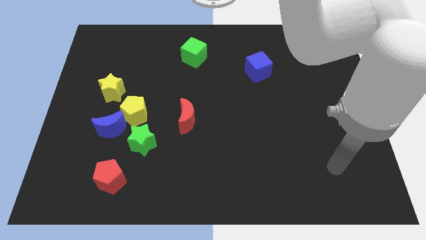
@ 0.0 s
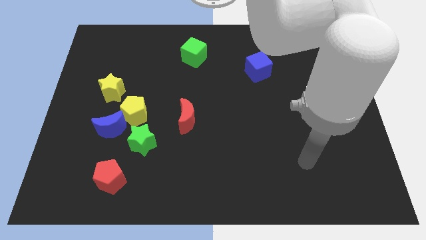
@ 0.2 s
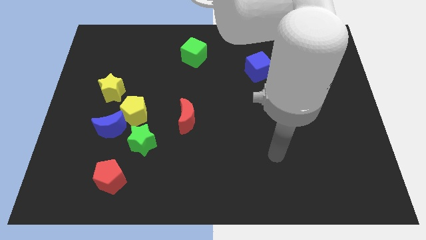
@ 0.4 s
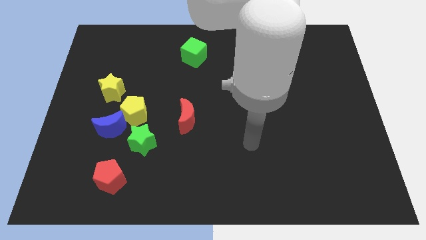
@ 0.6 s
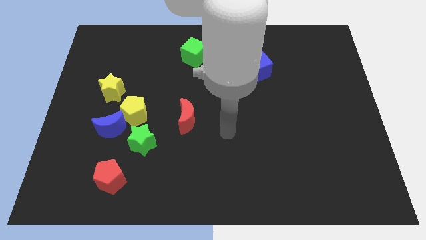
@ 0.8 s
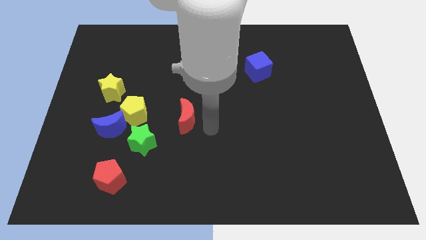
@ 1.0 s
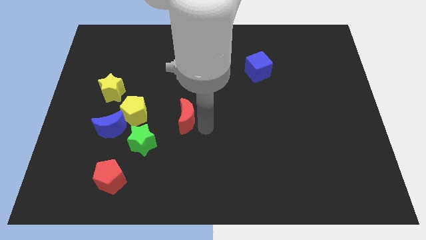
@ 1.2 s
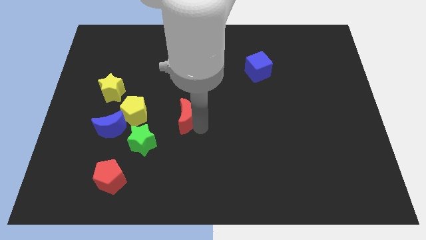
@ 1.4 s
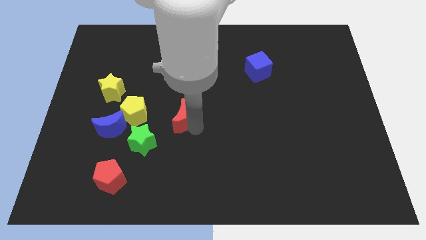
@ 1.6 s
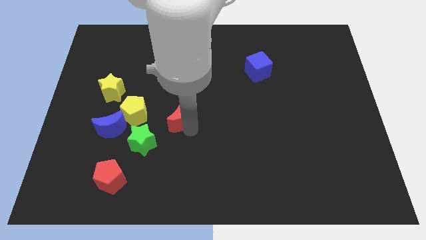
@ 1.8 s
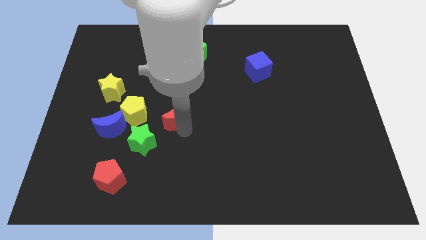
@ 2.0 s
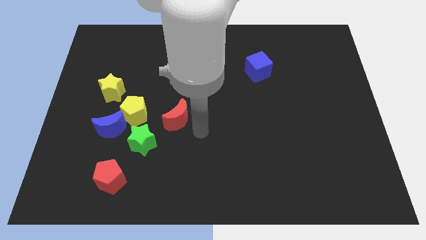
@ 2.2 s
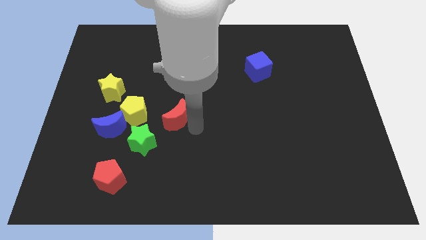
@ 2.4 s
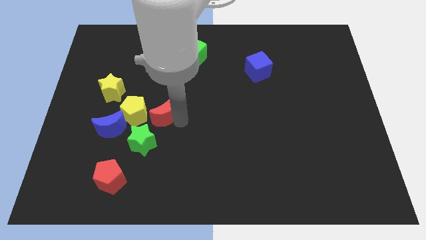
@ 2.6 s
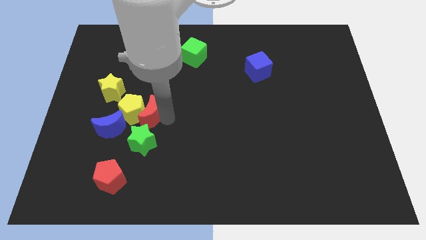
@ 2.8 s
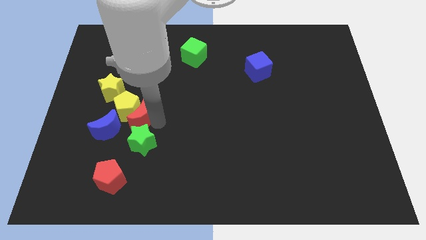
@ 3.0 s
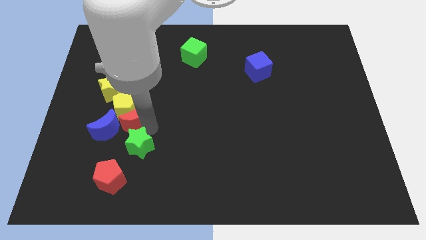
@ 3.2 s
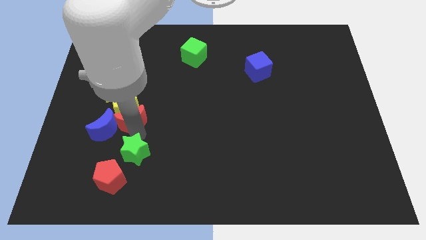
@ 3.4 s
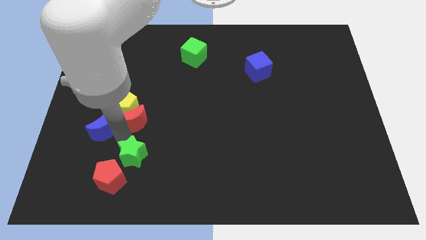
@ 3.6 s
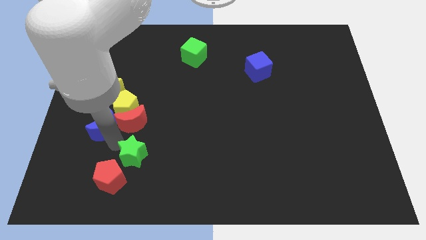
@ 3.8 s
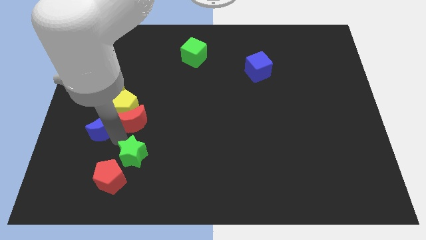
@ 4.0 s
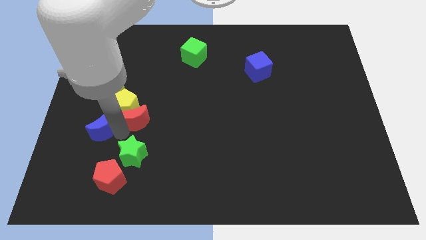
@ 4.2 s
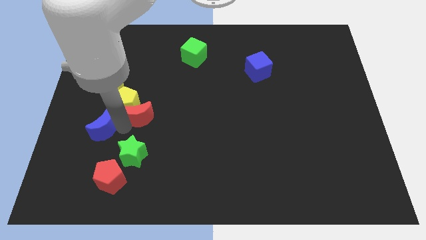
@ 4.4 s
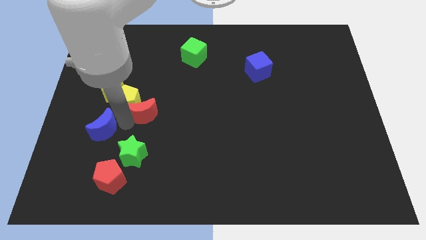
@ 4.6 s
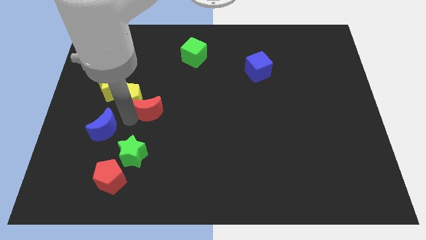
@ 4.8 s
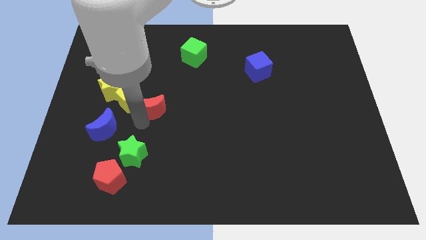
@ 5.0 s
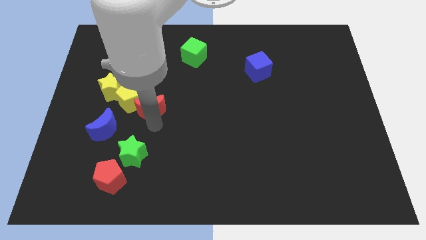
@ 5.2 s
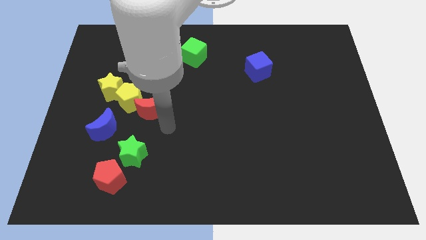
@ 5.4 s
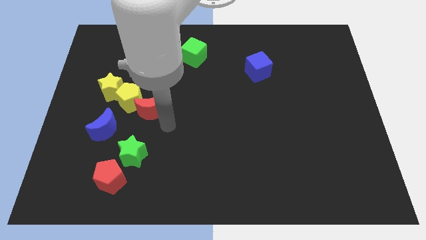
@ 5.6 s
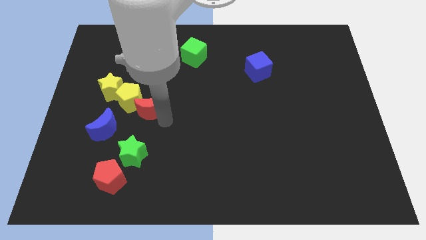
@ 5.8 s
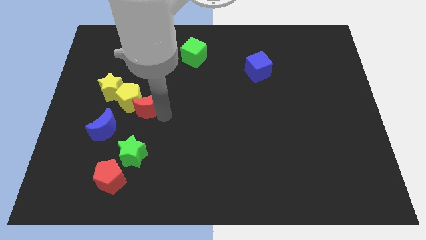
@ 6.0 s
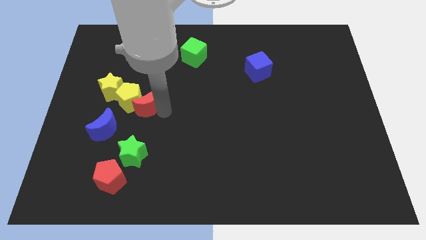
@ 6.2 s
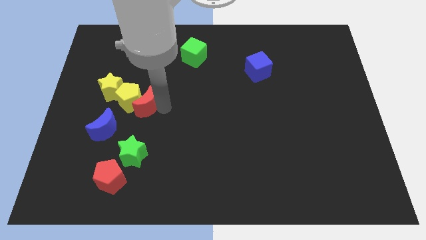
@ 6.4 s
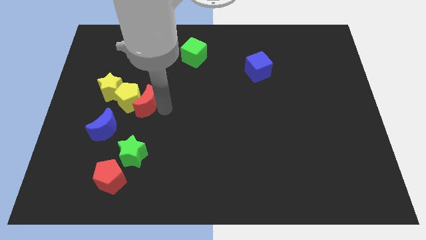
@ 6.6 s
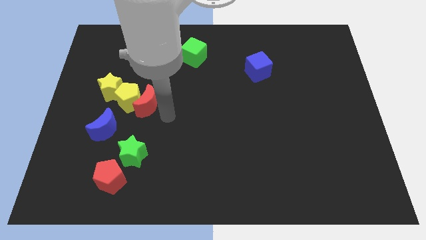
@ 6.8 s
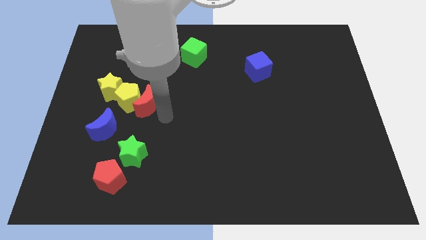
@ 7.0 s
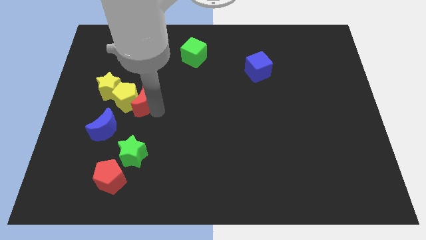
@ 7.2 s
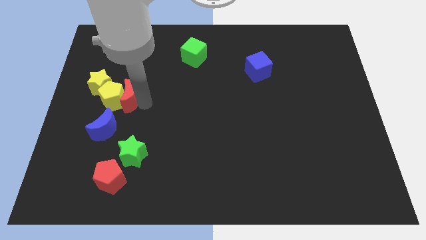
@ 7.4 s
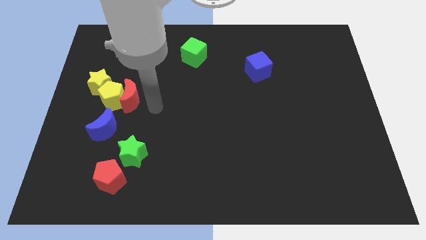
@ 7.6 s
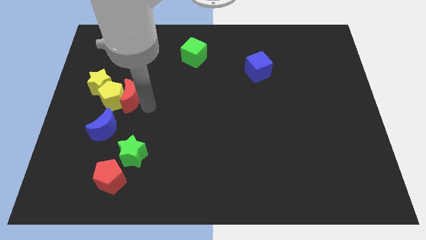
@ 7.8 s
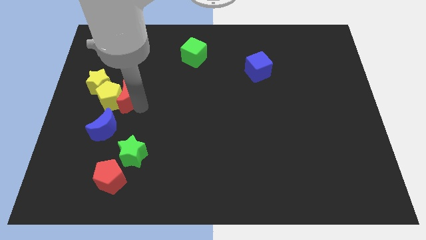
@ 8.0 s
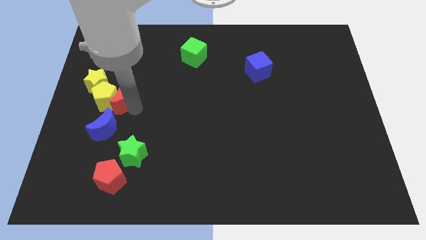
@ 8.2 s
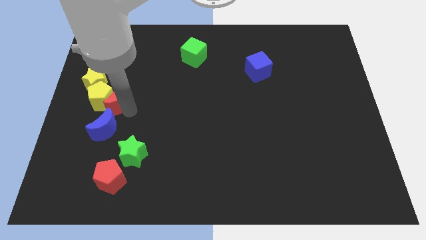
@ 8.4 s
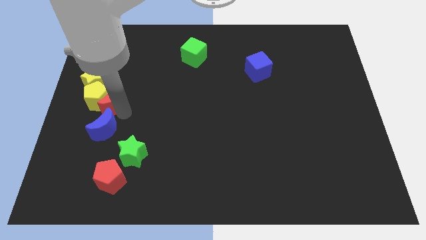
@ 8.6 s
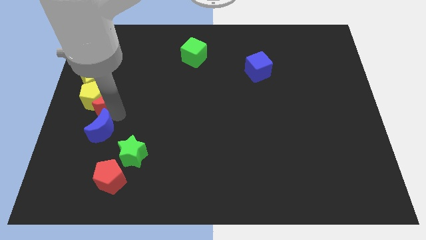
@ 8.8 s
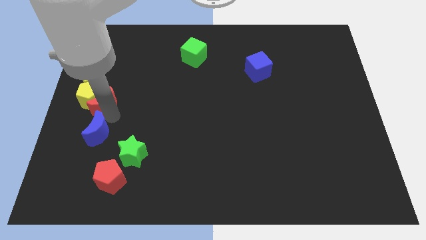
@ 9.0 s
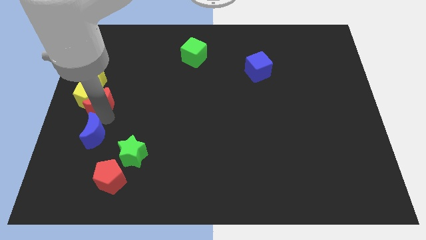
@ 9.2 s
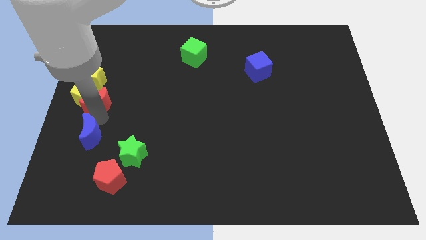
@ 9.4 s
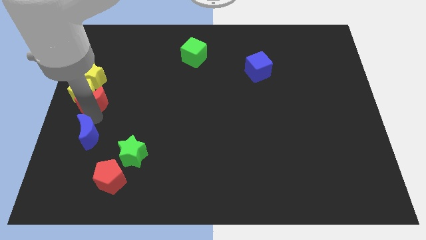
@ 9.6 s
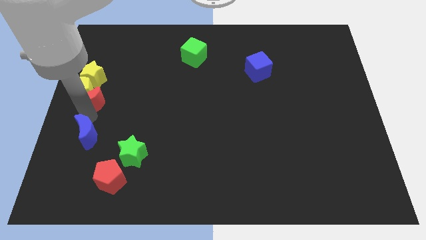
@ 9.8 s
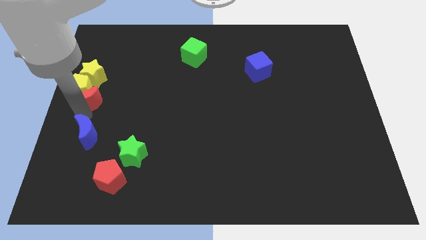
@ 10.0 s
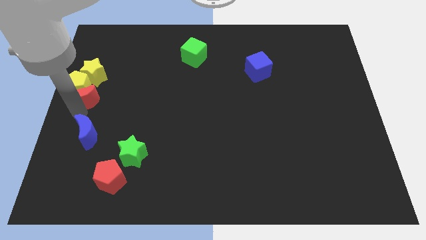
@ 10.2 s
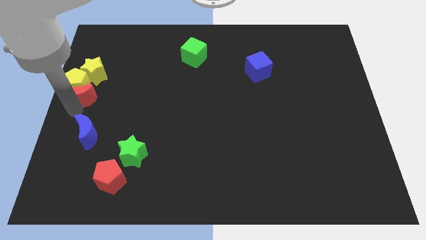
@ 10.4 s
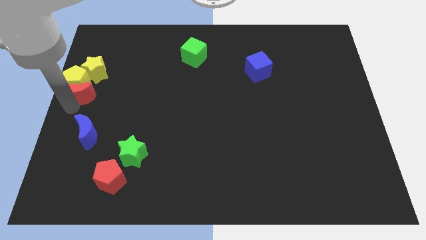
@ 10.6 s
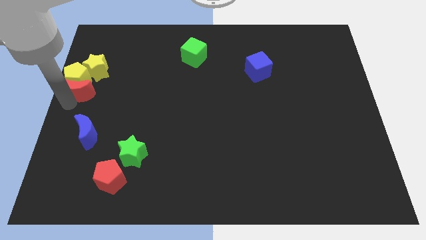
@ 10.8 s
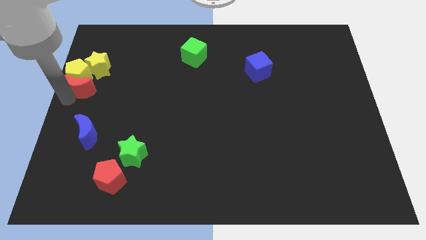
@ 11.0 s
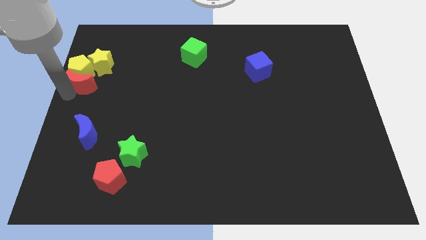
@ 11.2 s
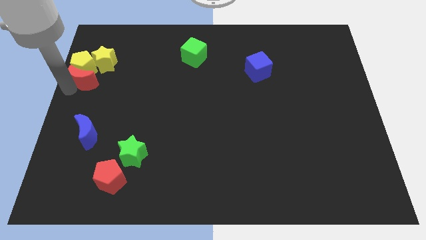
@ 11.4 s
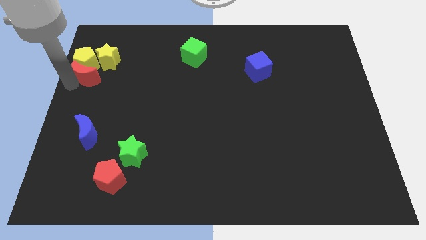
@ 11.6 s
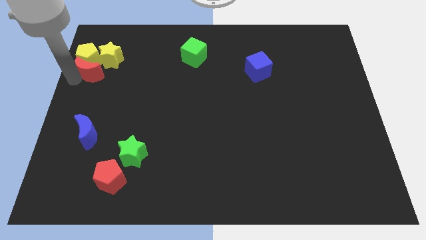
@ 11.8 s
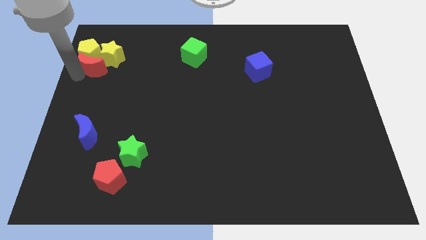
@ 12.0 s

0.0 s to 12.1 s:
slide the red moon towards the yellow star

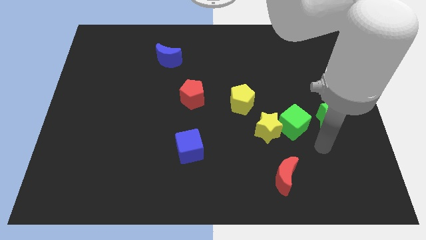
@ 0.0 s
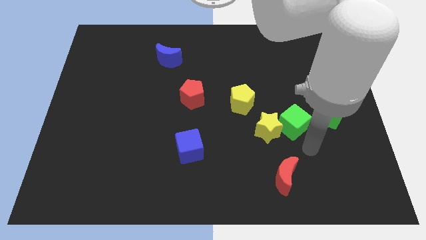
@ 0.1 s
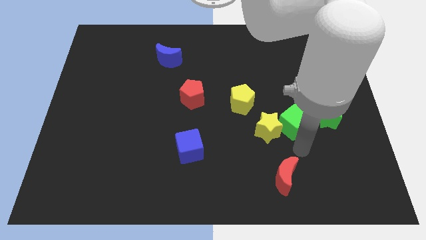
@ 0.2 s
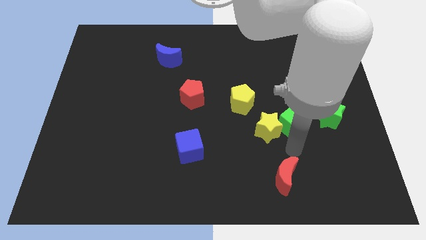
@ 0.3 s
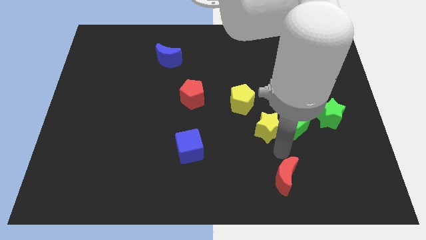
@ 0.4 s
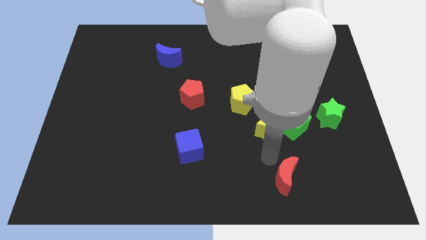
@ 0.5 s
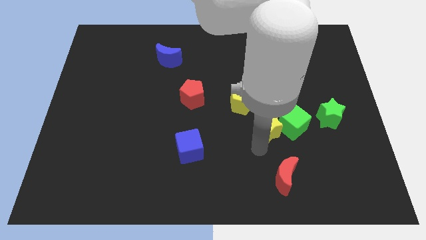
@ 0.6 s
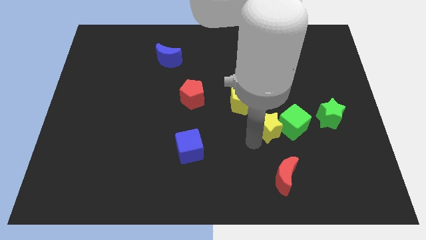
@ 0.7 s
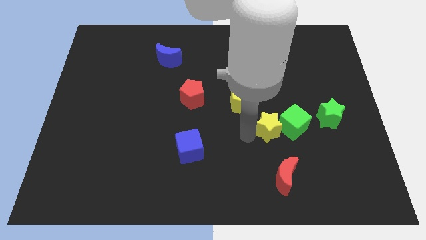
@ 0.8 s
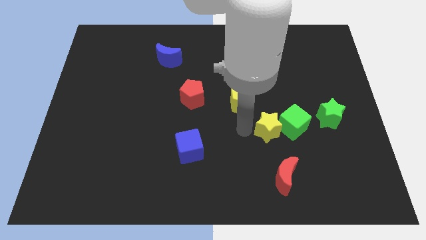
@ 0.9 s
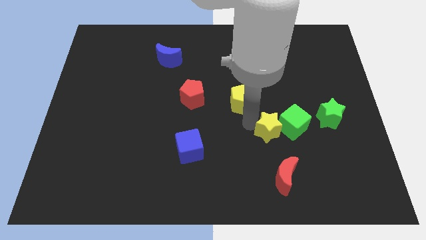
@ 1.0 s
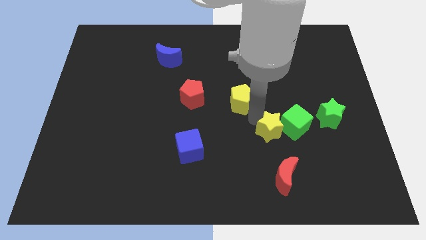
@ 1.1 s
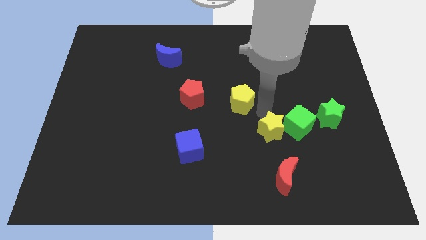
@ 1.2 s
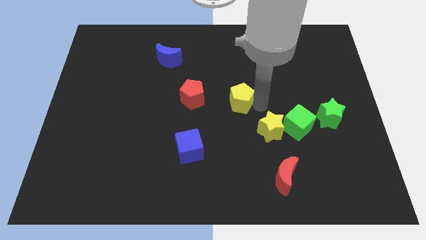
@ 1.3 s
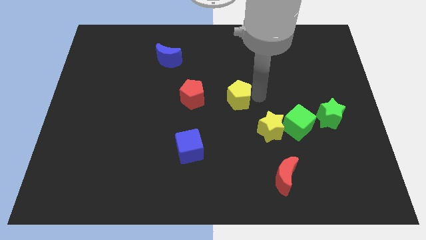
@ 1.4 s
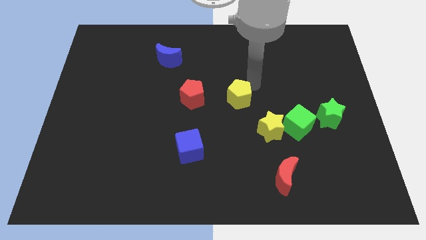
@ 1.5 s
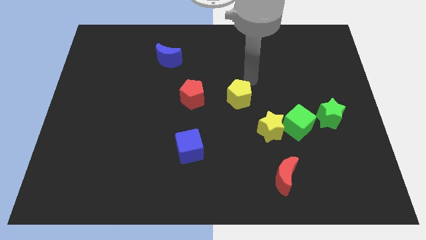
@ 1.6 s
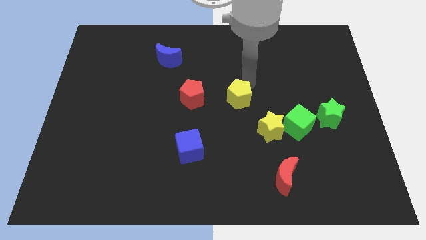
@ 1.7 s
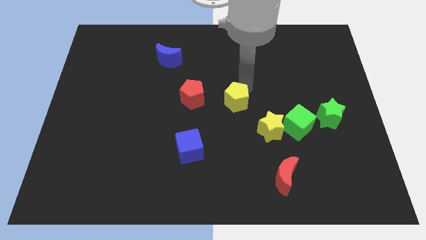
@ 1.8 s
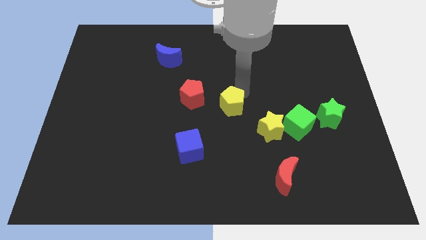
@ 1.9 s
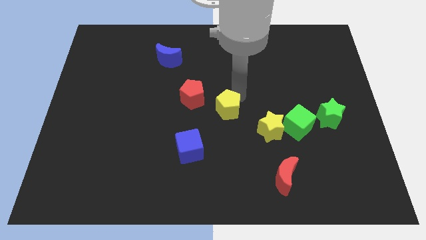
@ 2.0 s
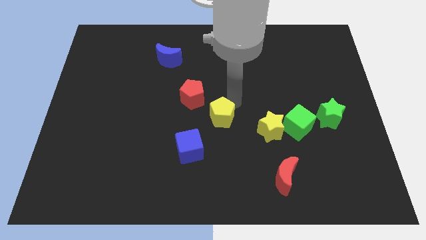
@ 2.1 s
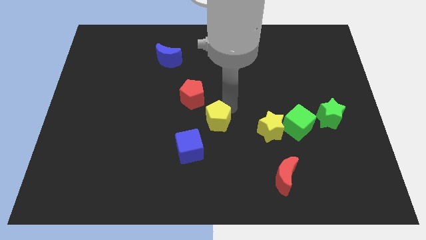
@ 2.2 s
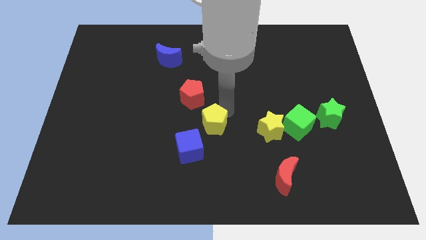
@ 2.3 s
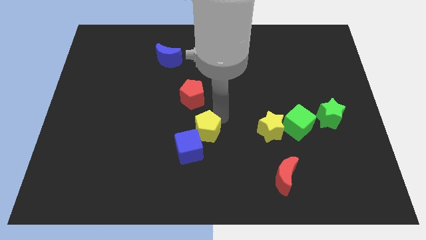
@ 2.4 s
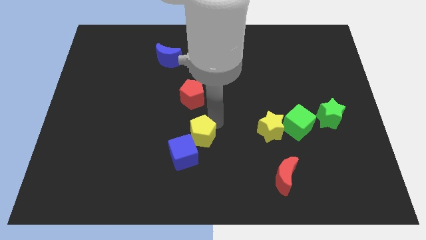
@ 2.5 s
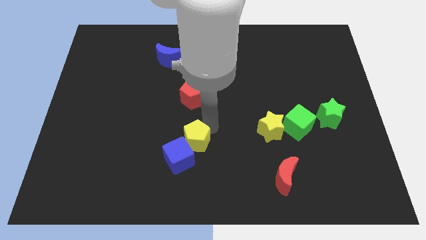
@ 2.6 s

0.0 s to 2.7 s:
slide the yellow pentagon next to the blue cube
